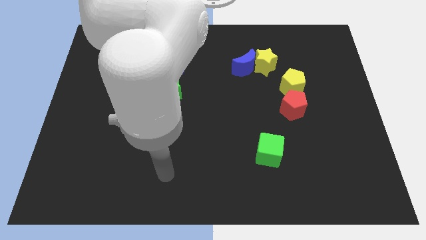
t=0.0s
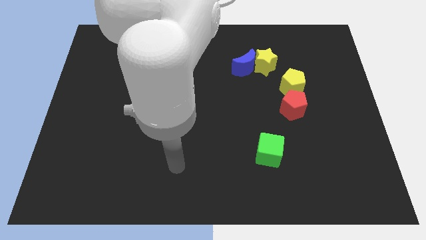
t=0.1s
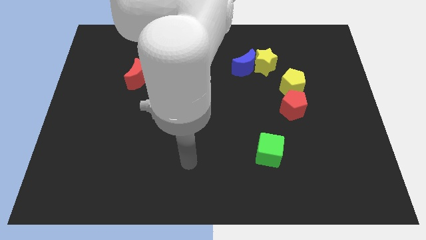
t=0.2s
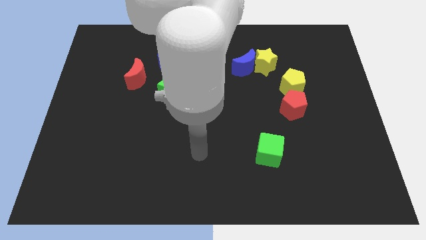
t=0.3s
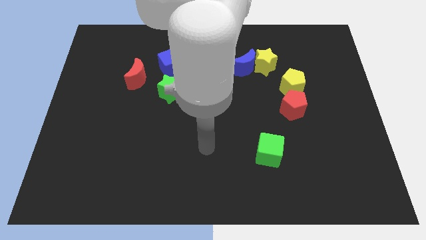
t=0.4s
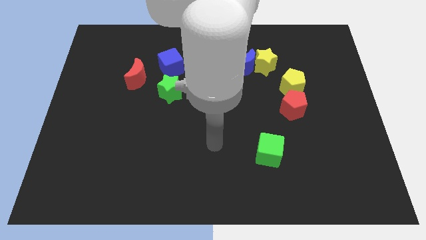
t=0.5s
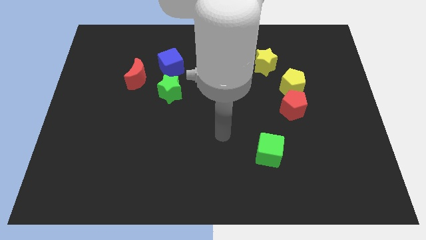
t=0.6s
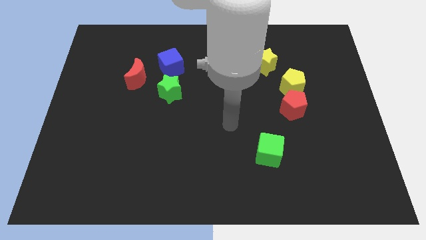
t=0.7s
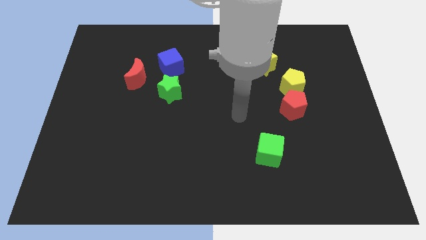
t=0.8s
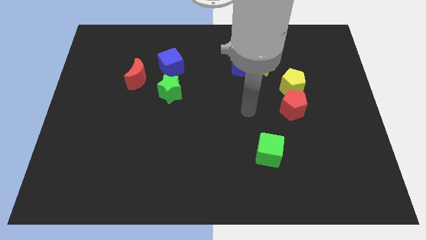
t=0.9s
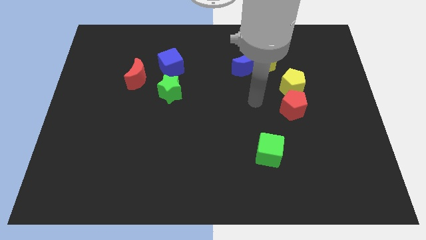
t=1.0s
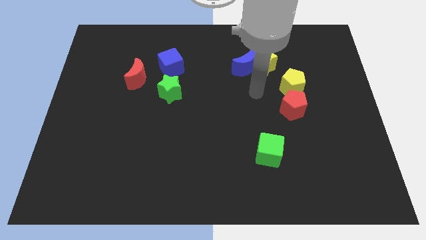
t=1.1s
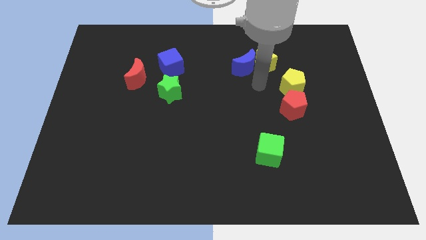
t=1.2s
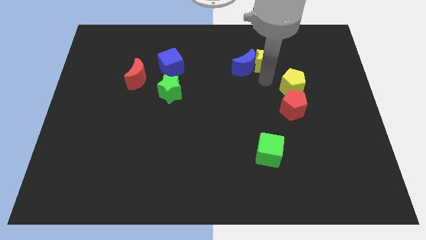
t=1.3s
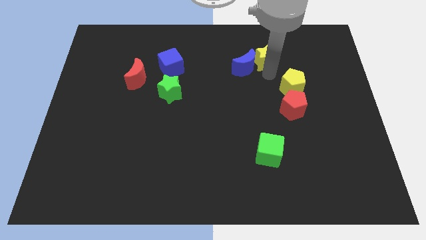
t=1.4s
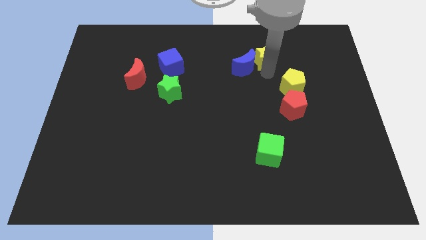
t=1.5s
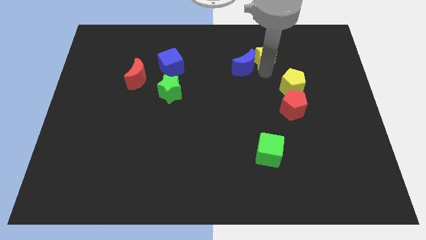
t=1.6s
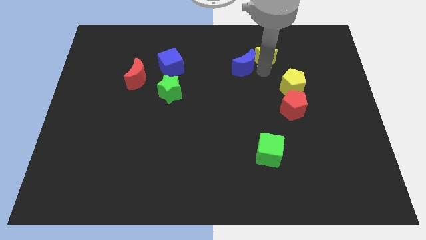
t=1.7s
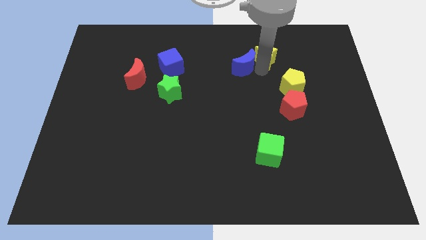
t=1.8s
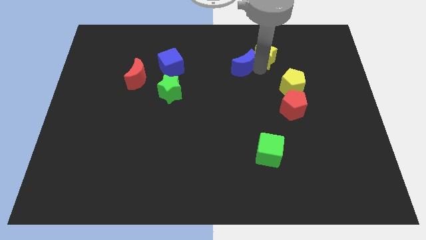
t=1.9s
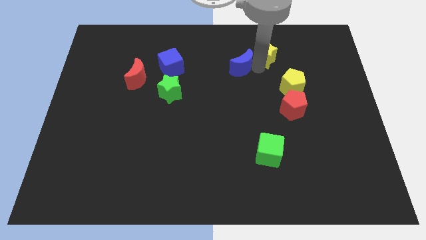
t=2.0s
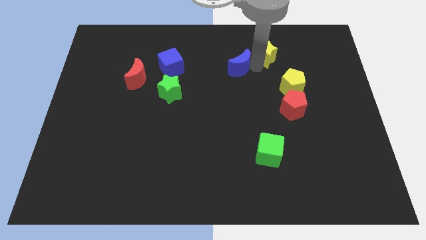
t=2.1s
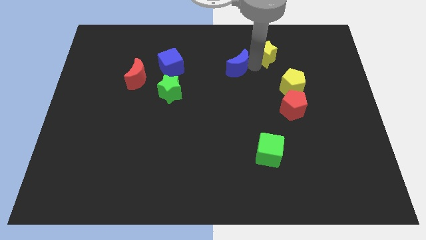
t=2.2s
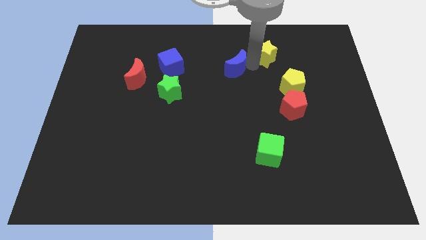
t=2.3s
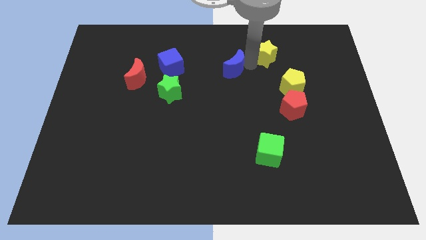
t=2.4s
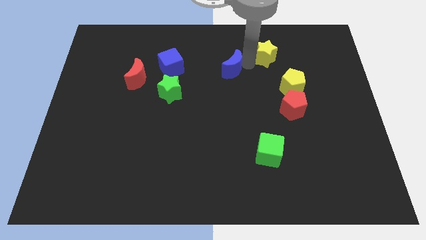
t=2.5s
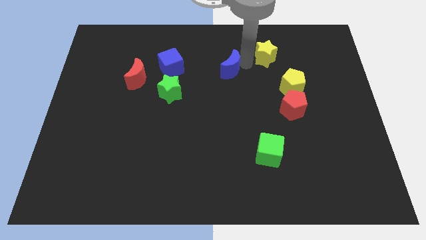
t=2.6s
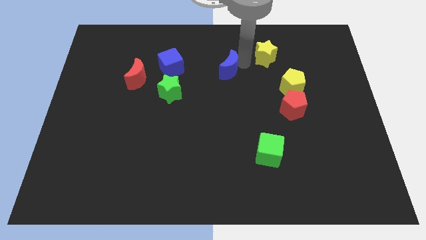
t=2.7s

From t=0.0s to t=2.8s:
move the blue moon away from the yellow star

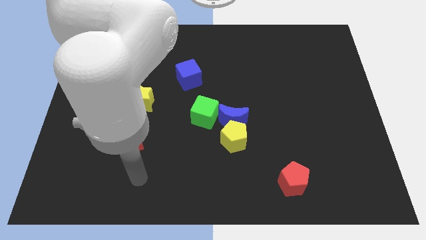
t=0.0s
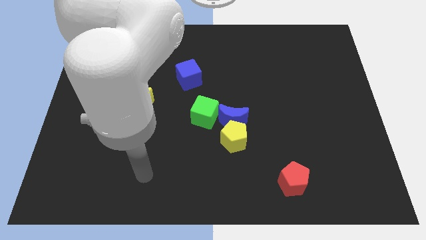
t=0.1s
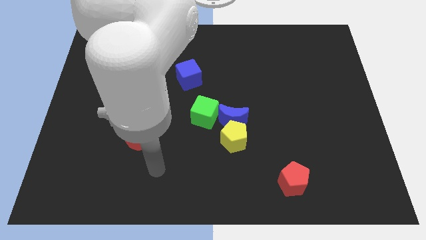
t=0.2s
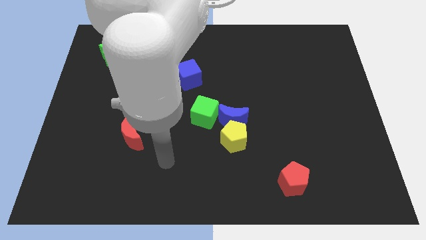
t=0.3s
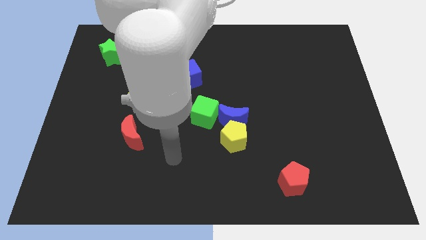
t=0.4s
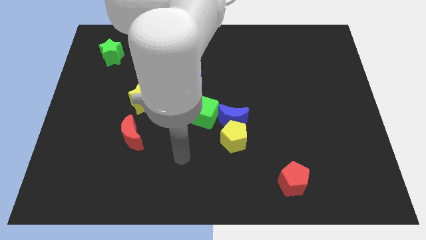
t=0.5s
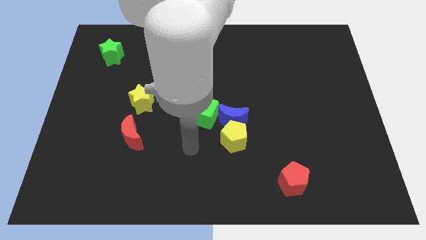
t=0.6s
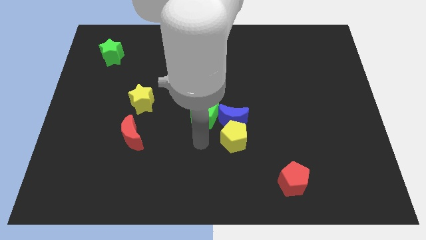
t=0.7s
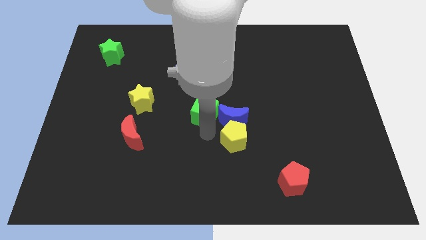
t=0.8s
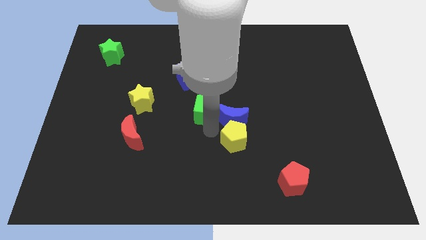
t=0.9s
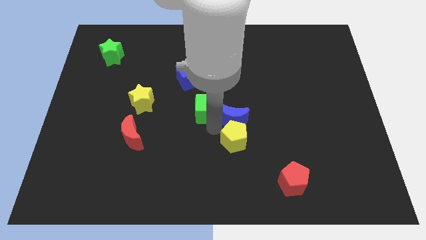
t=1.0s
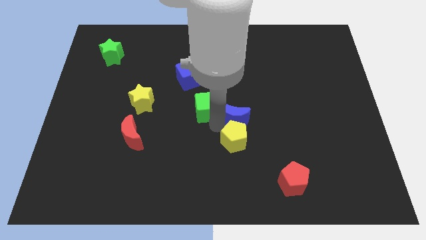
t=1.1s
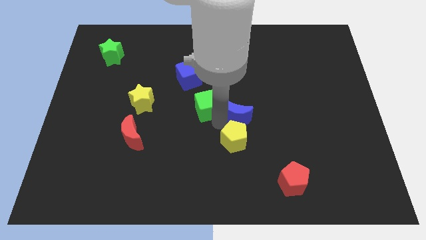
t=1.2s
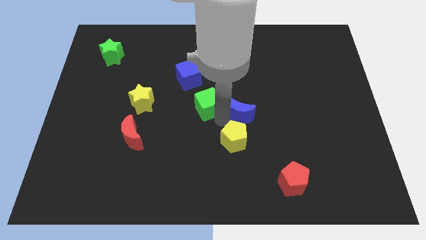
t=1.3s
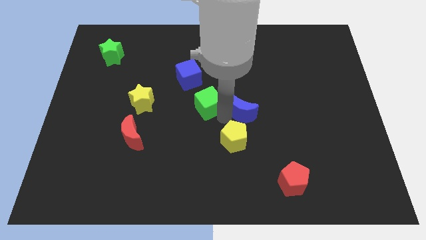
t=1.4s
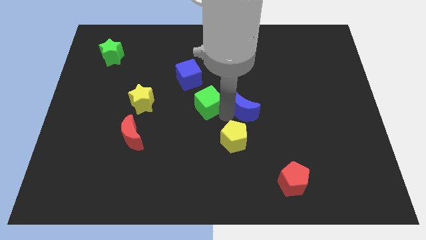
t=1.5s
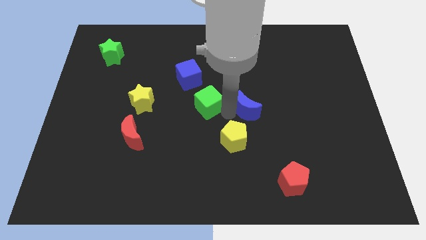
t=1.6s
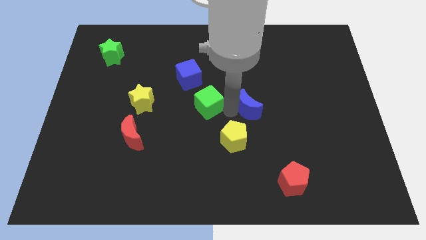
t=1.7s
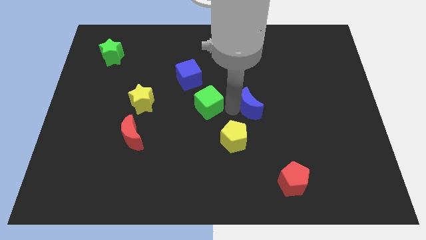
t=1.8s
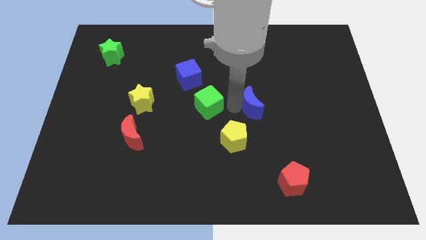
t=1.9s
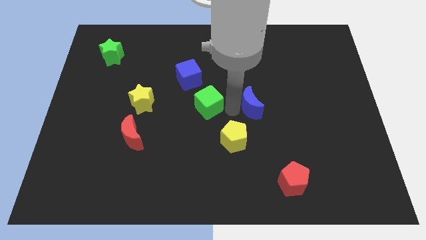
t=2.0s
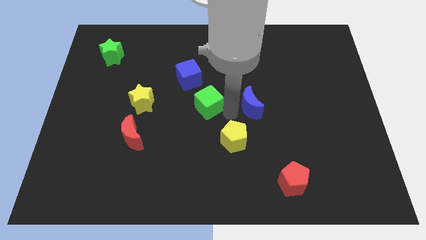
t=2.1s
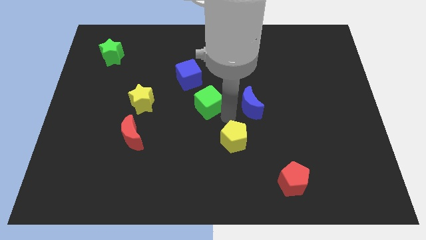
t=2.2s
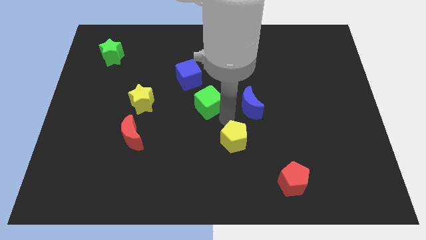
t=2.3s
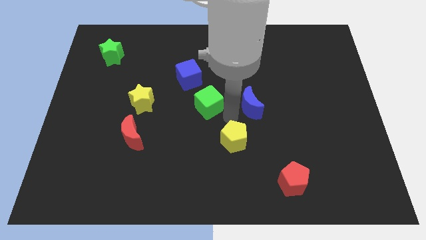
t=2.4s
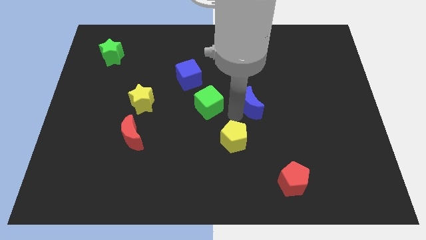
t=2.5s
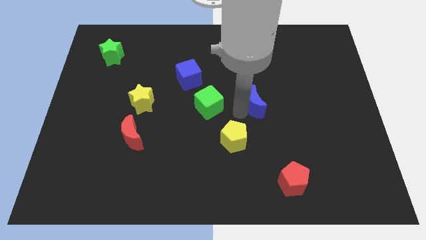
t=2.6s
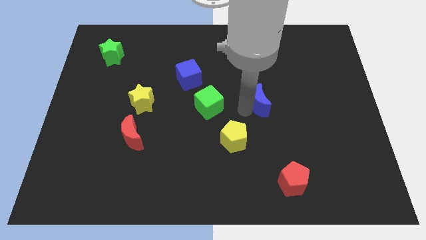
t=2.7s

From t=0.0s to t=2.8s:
pull the blue moon apart from the yellow pentagon and green cube

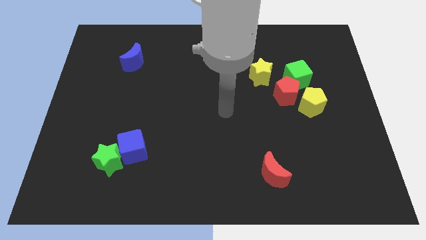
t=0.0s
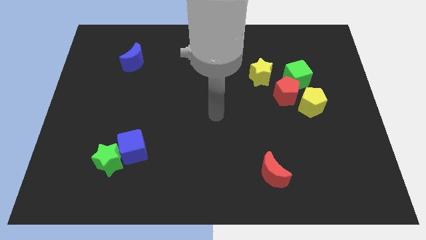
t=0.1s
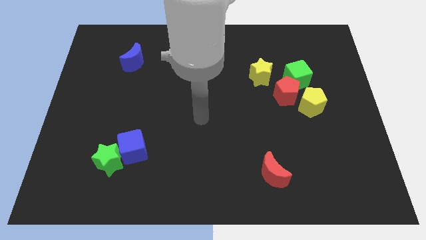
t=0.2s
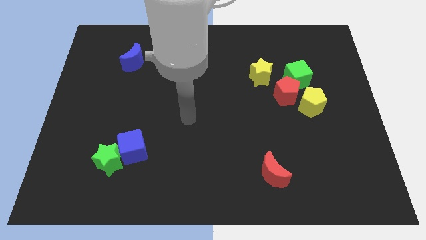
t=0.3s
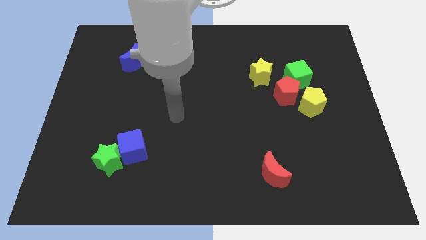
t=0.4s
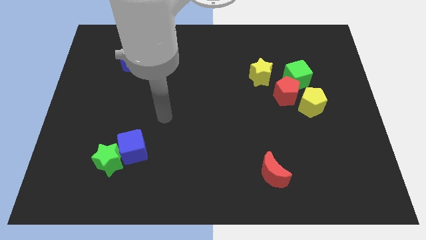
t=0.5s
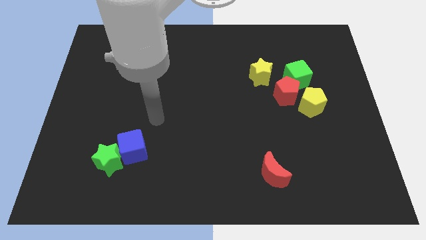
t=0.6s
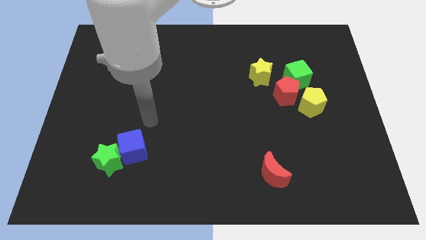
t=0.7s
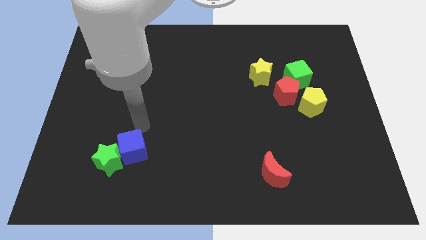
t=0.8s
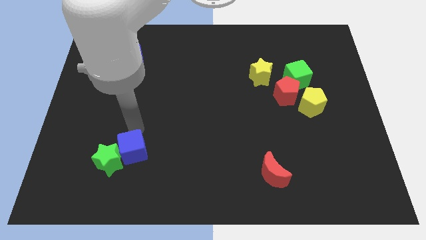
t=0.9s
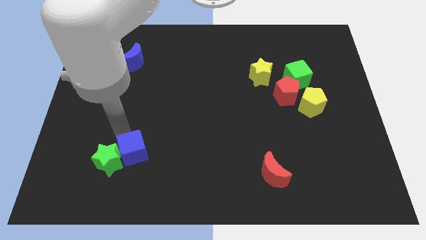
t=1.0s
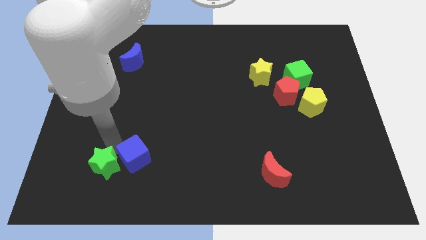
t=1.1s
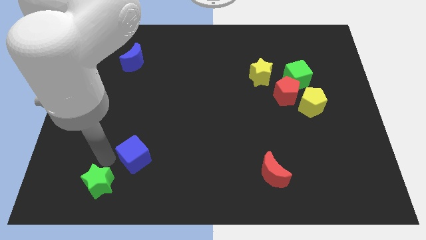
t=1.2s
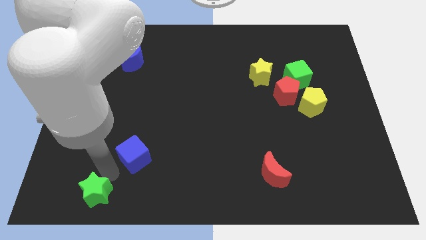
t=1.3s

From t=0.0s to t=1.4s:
move the blue cube away from the green star

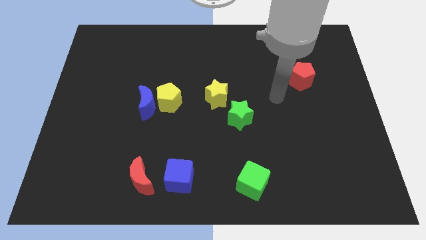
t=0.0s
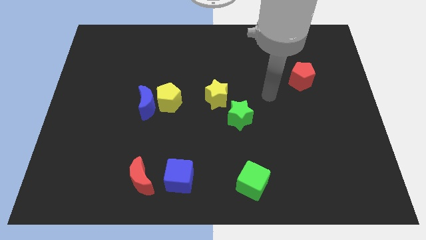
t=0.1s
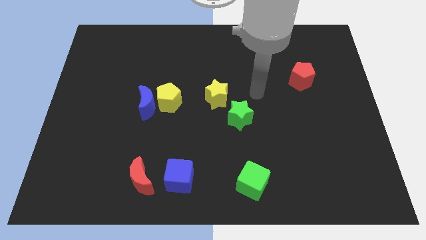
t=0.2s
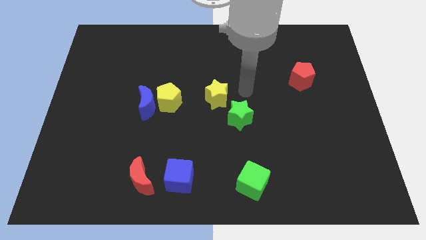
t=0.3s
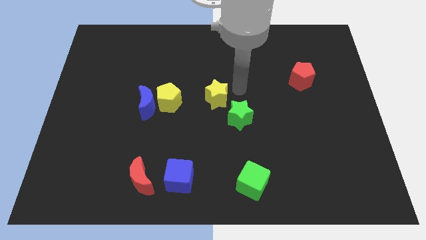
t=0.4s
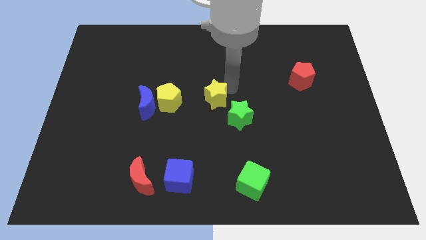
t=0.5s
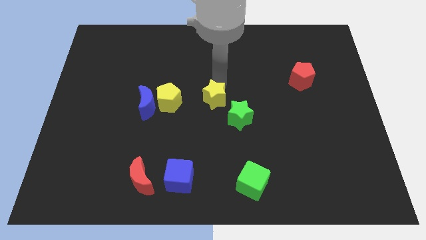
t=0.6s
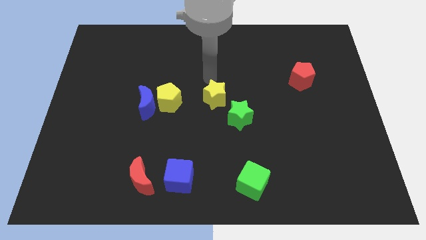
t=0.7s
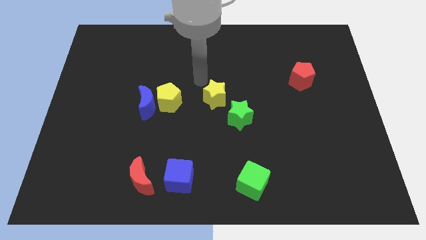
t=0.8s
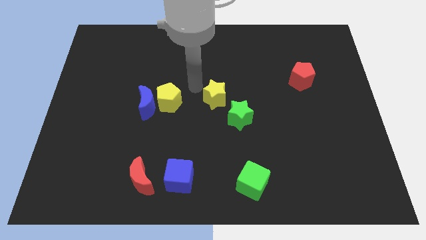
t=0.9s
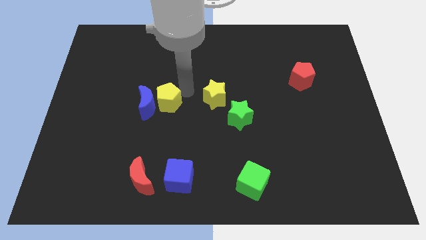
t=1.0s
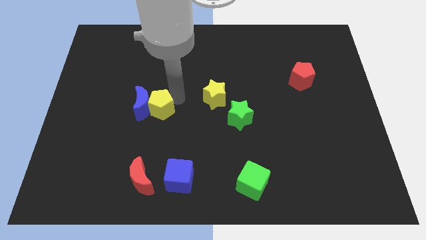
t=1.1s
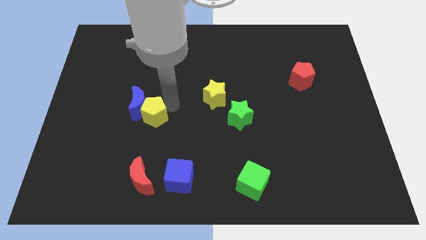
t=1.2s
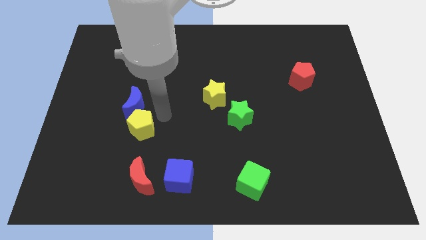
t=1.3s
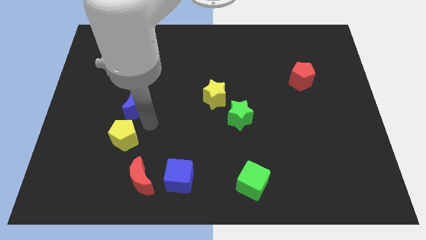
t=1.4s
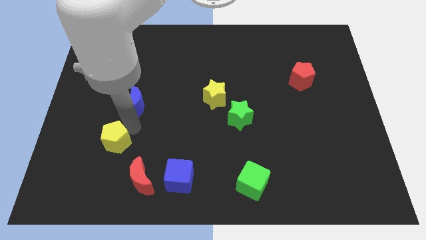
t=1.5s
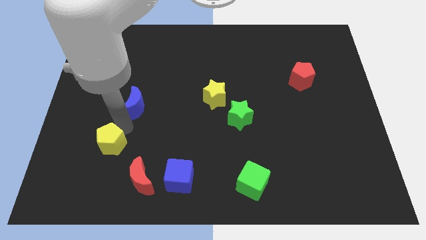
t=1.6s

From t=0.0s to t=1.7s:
move the blue moon away from the yellow pentagon

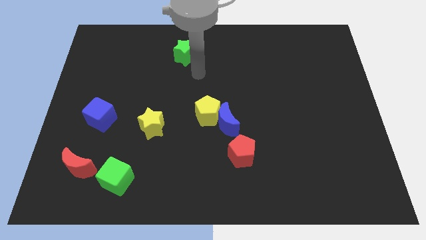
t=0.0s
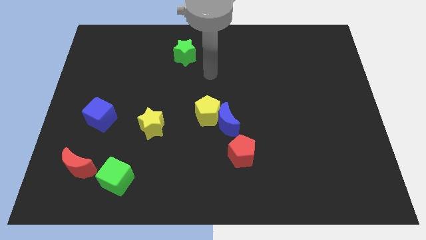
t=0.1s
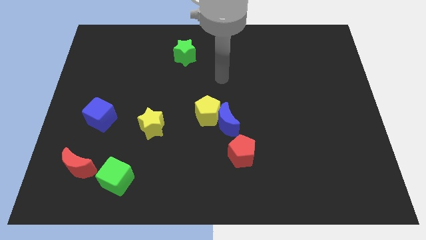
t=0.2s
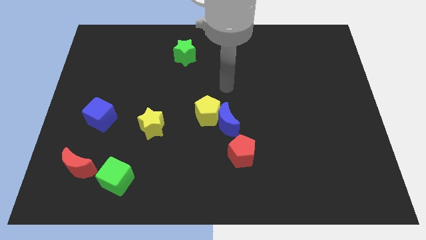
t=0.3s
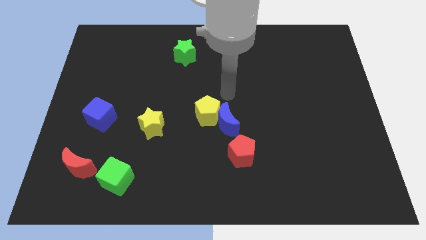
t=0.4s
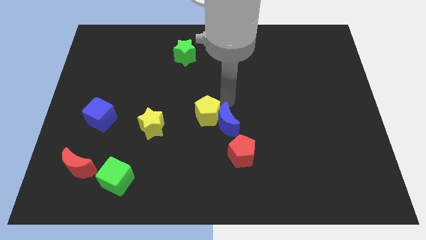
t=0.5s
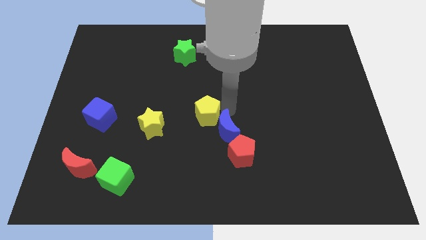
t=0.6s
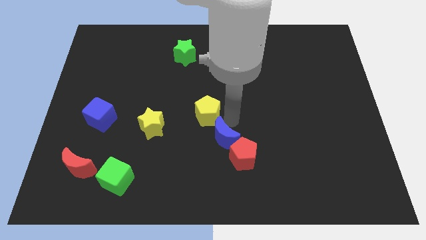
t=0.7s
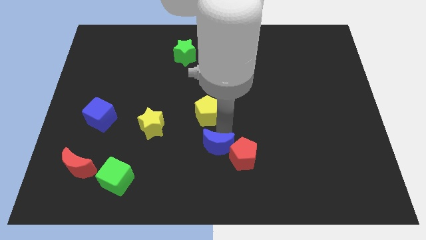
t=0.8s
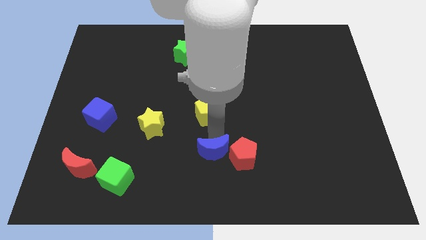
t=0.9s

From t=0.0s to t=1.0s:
pull the yellow pentagon apart from the blue moon
